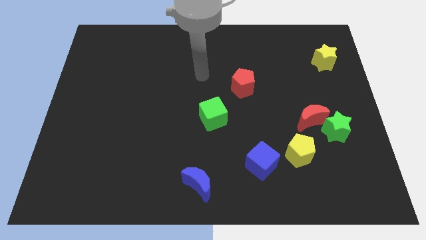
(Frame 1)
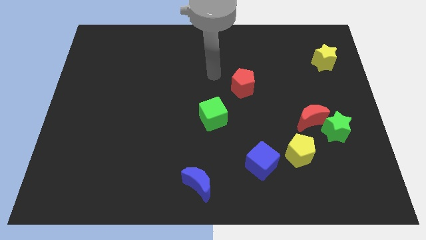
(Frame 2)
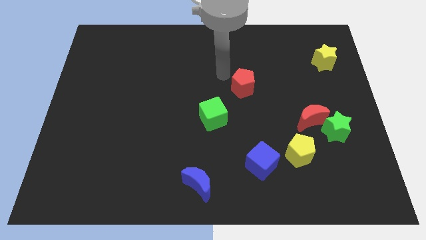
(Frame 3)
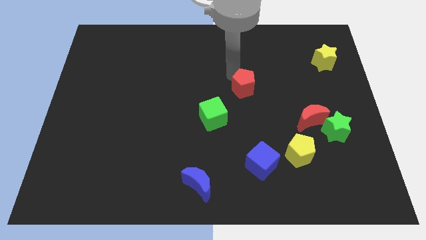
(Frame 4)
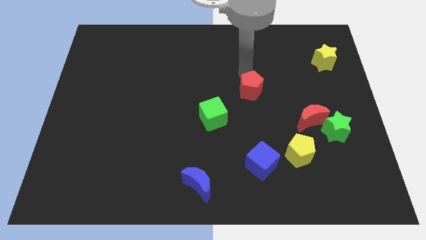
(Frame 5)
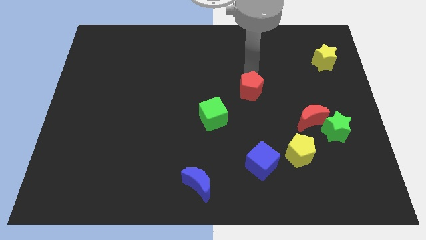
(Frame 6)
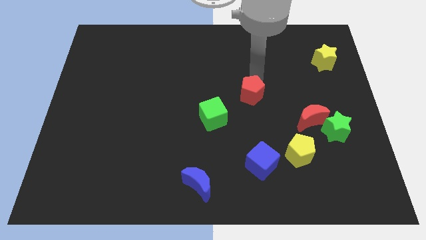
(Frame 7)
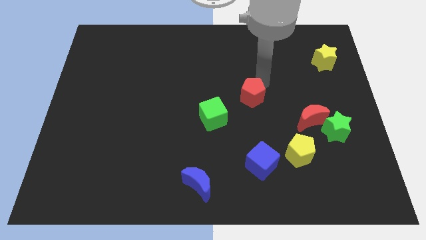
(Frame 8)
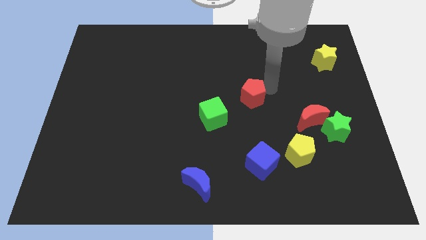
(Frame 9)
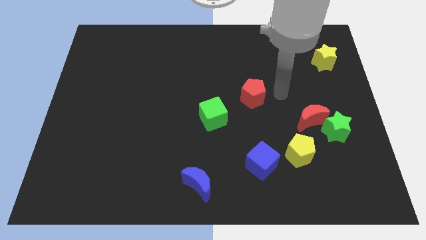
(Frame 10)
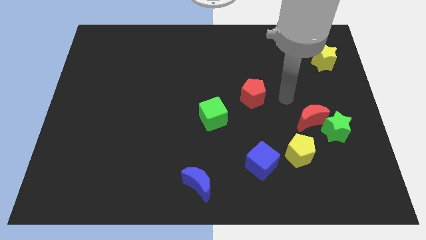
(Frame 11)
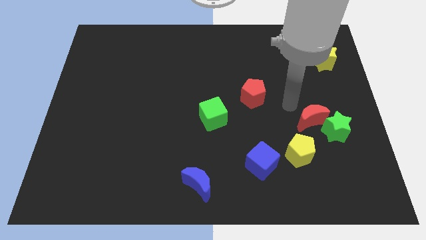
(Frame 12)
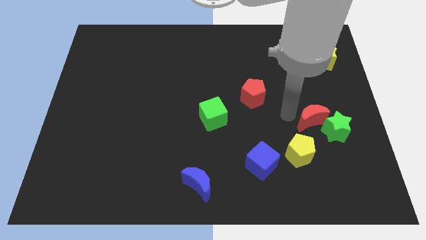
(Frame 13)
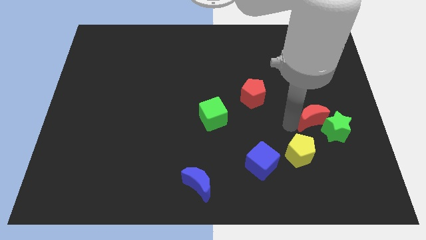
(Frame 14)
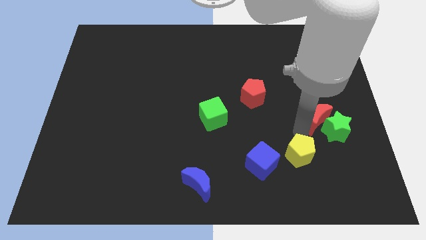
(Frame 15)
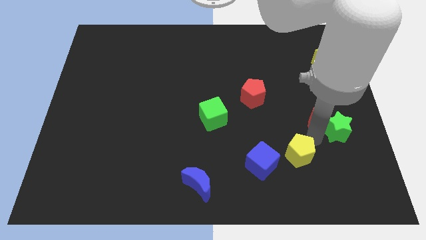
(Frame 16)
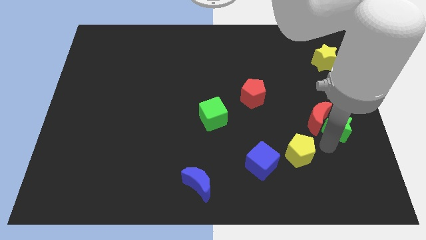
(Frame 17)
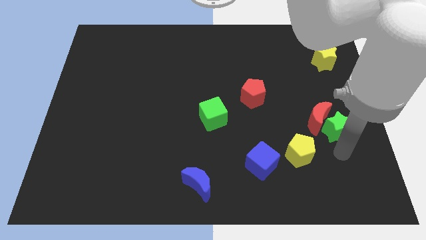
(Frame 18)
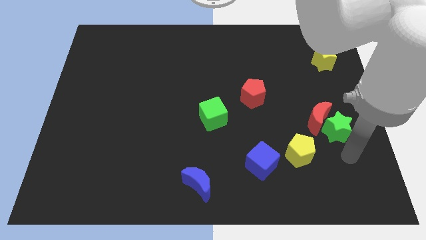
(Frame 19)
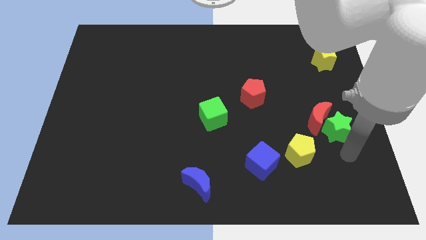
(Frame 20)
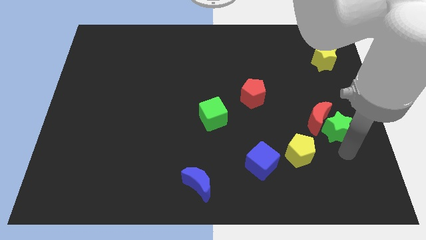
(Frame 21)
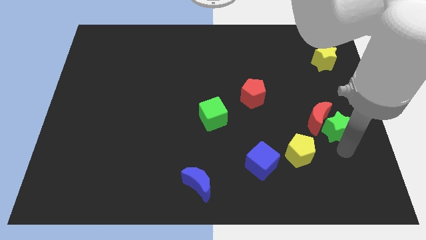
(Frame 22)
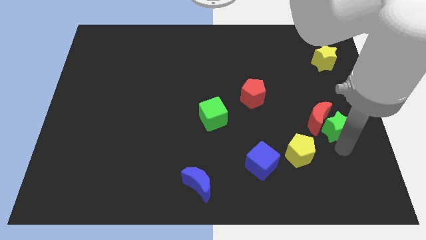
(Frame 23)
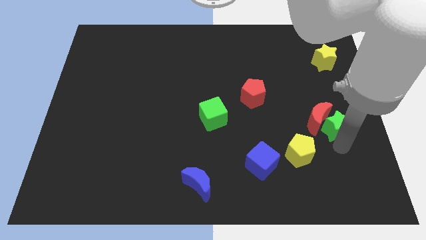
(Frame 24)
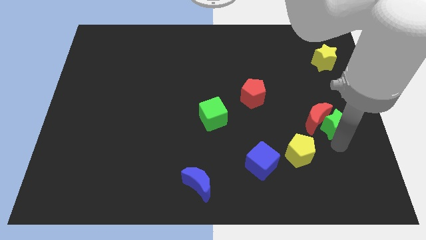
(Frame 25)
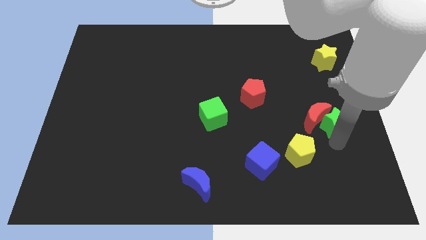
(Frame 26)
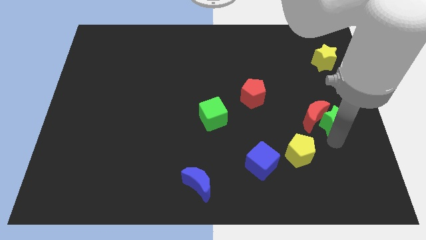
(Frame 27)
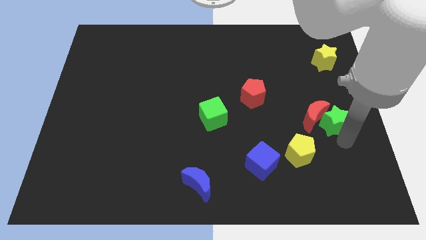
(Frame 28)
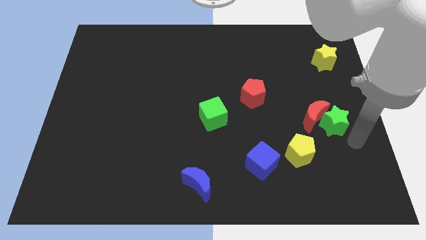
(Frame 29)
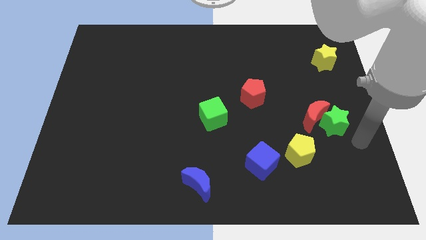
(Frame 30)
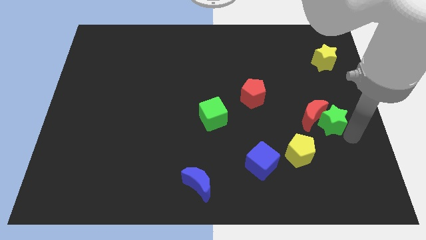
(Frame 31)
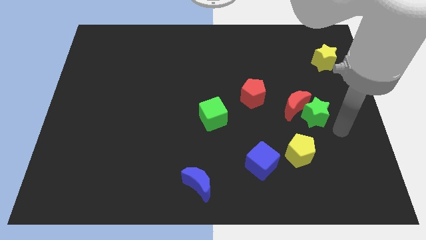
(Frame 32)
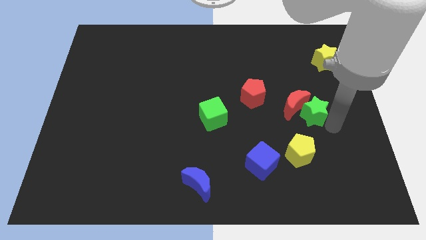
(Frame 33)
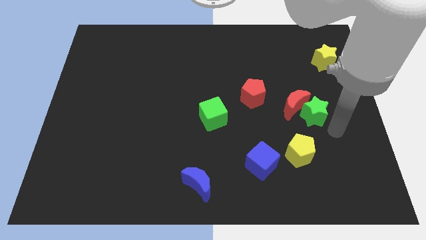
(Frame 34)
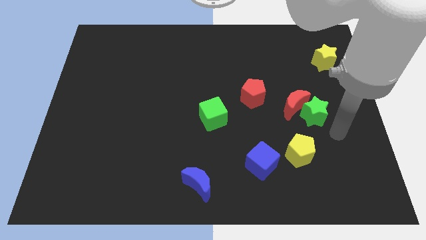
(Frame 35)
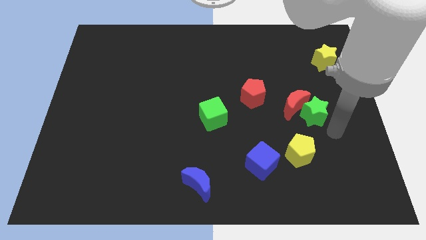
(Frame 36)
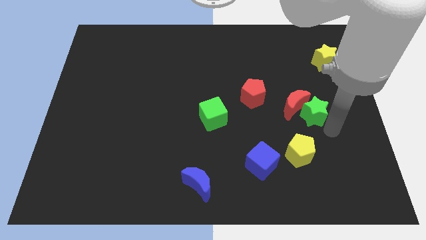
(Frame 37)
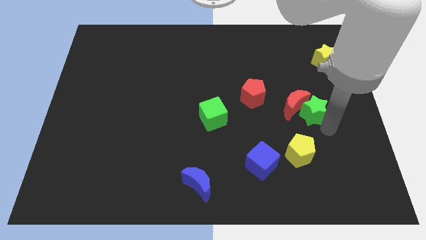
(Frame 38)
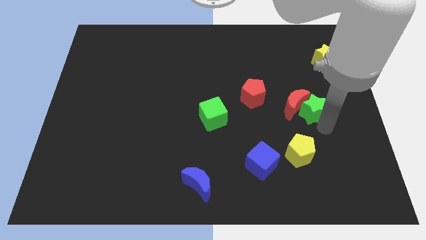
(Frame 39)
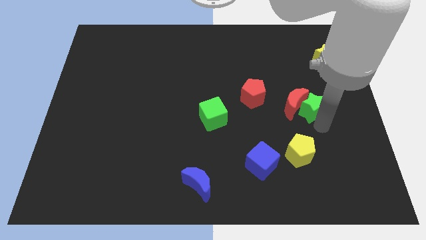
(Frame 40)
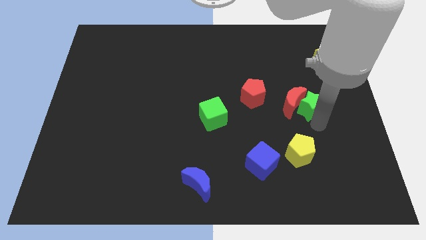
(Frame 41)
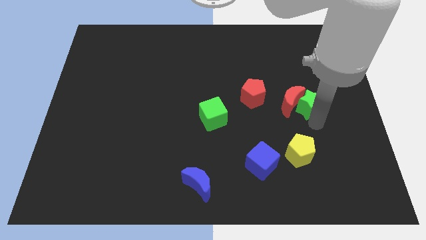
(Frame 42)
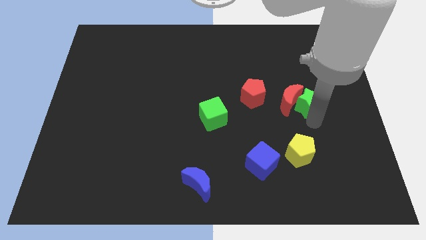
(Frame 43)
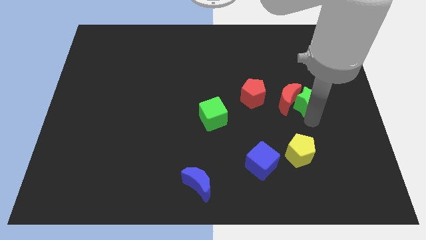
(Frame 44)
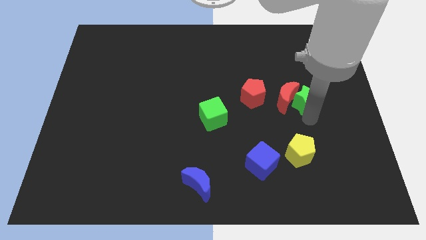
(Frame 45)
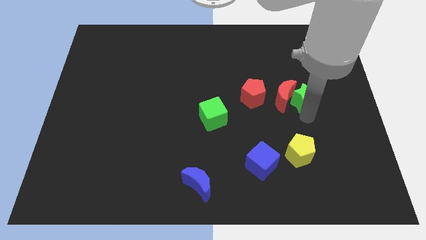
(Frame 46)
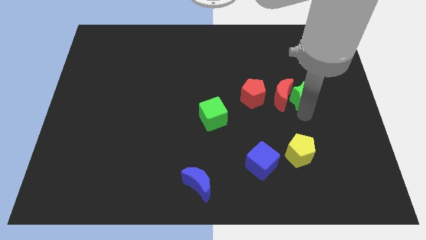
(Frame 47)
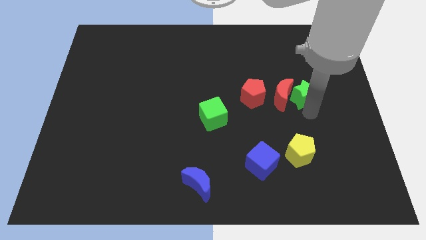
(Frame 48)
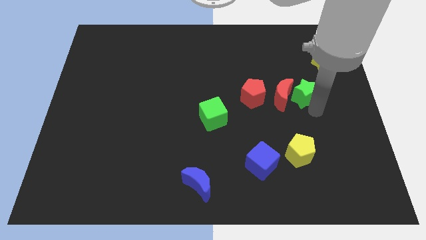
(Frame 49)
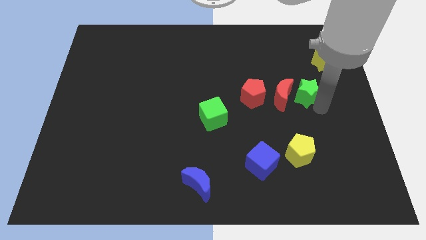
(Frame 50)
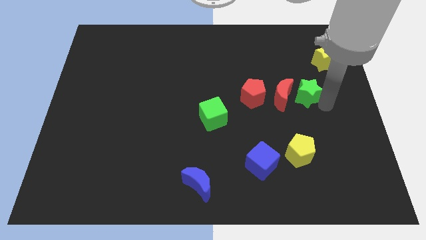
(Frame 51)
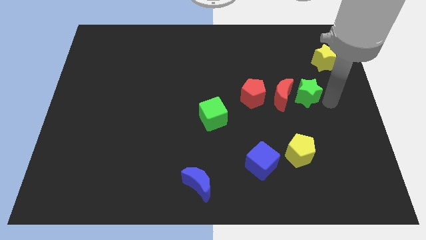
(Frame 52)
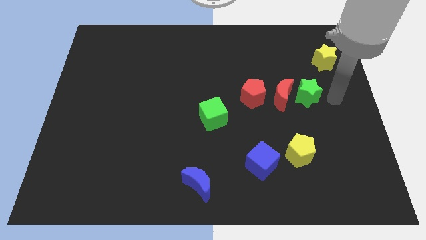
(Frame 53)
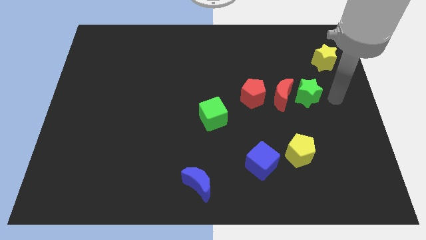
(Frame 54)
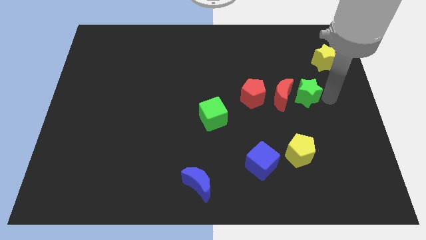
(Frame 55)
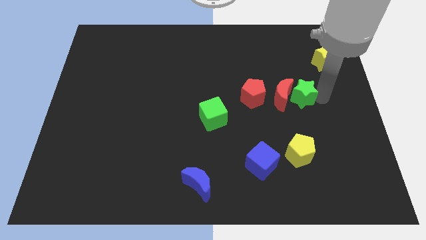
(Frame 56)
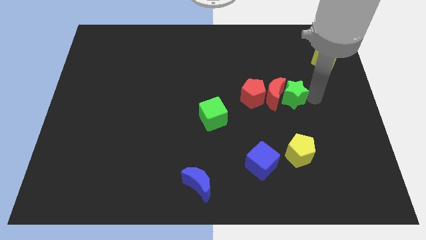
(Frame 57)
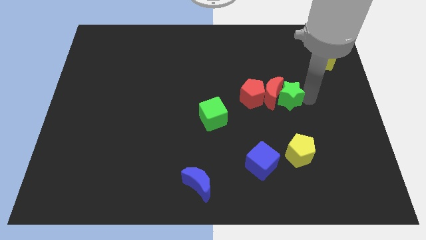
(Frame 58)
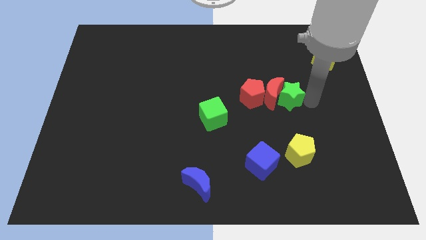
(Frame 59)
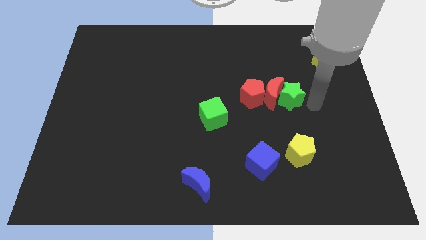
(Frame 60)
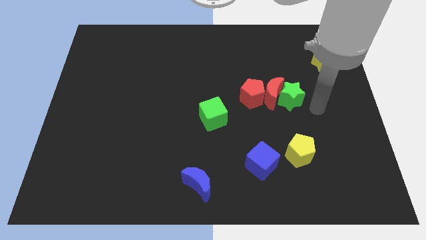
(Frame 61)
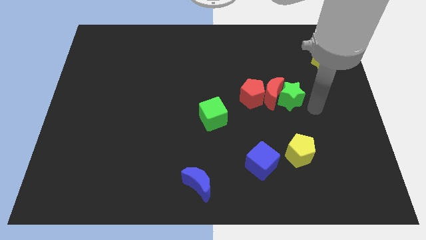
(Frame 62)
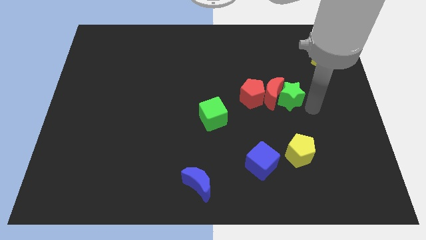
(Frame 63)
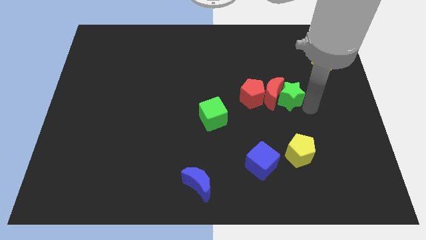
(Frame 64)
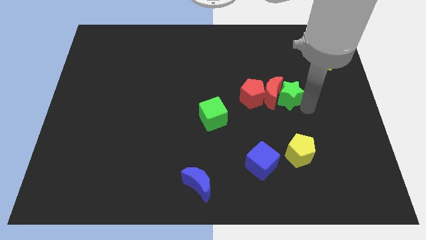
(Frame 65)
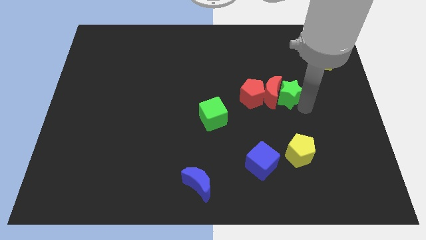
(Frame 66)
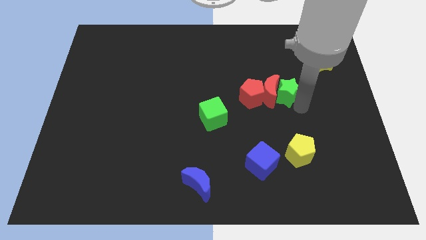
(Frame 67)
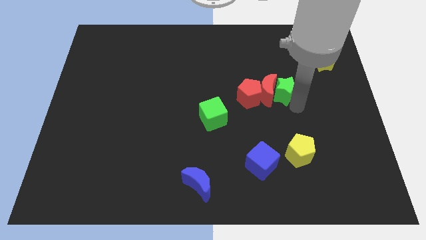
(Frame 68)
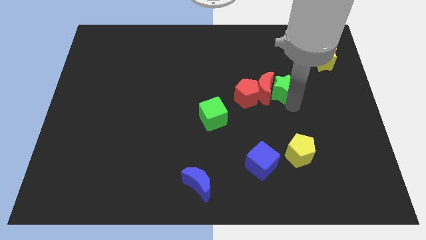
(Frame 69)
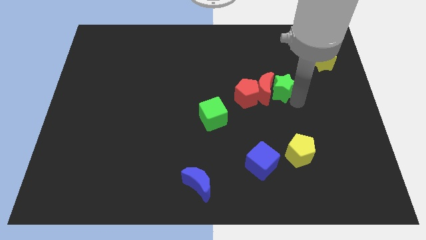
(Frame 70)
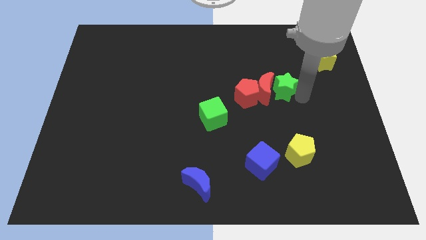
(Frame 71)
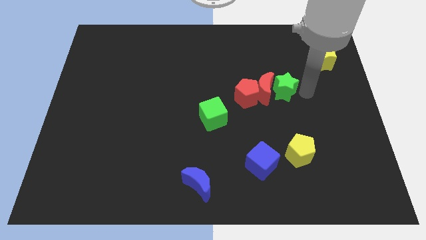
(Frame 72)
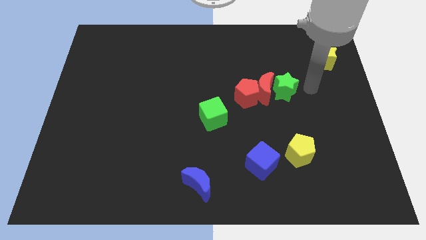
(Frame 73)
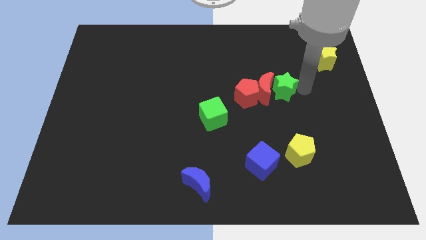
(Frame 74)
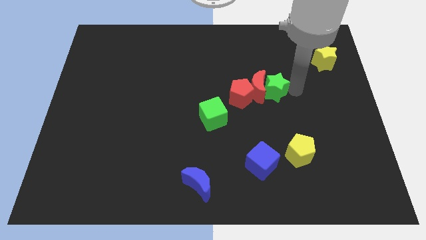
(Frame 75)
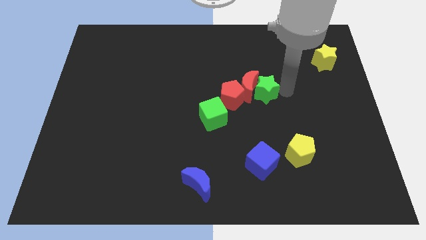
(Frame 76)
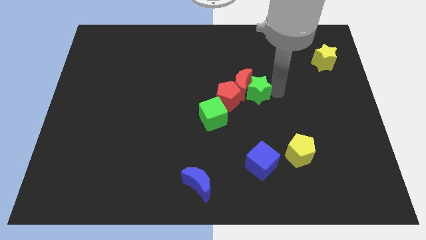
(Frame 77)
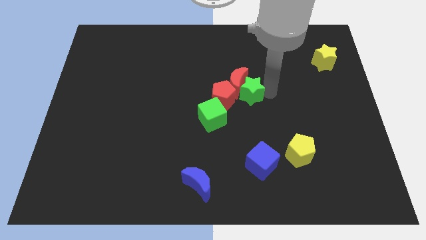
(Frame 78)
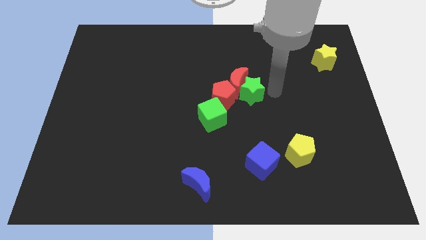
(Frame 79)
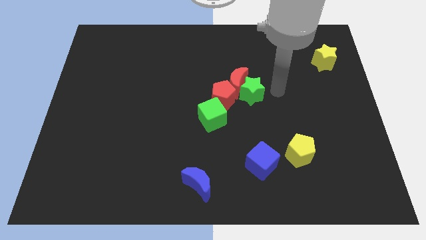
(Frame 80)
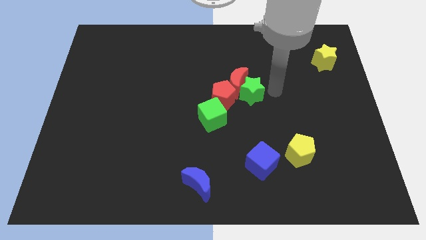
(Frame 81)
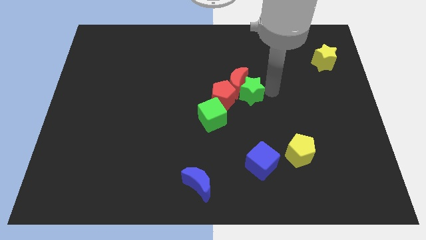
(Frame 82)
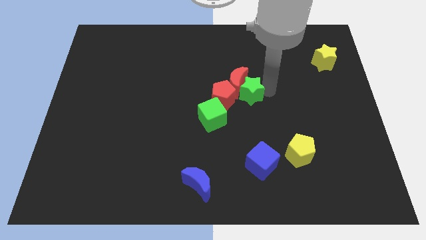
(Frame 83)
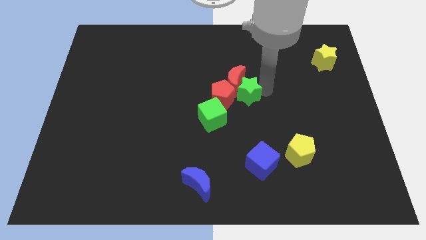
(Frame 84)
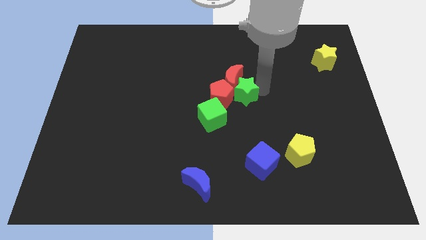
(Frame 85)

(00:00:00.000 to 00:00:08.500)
slide the green star next to the red pentagon
